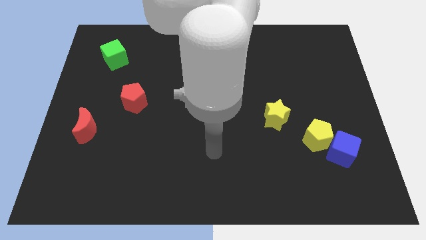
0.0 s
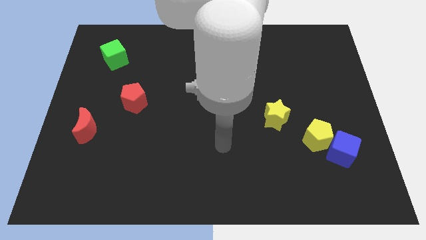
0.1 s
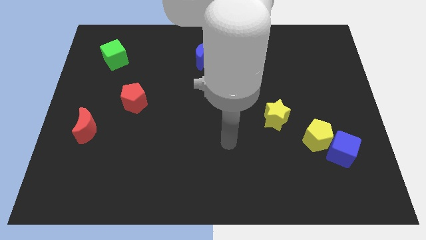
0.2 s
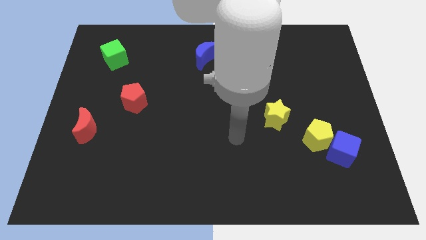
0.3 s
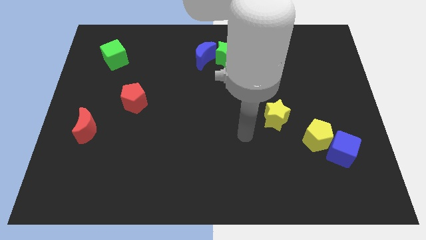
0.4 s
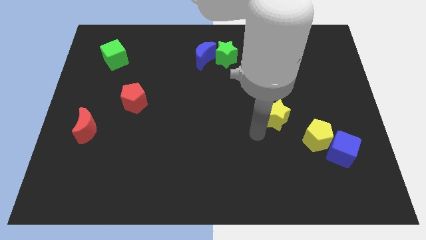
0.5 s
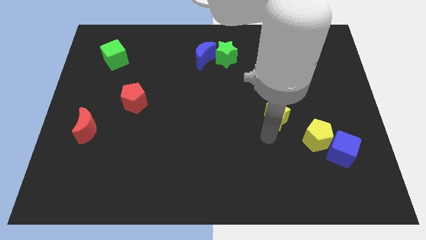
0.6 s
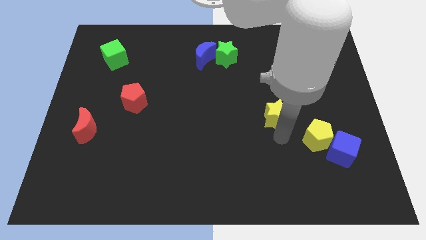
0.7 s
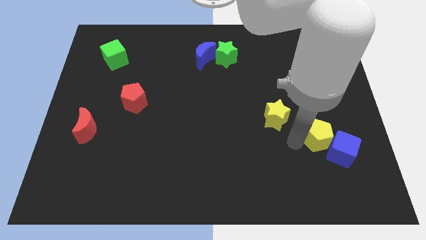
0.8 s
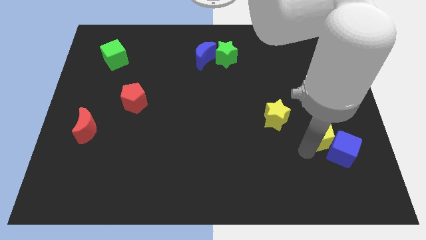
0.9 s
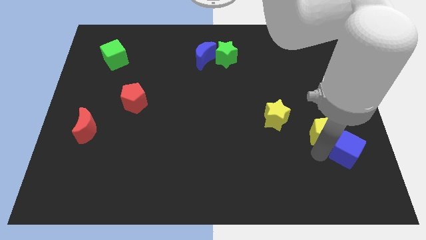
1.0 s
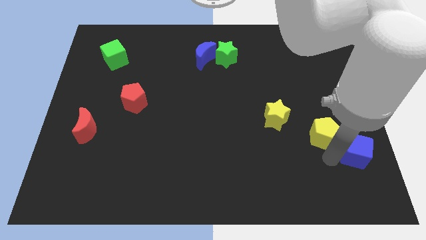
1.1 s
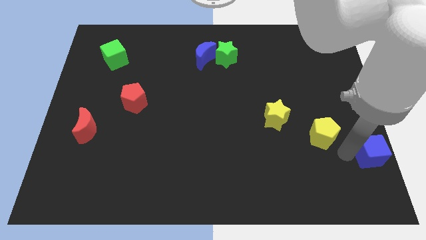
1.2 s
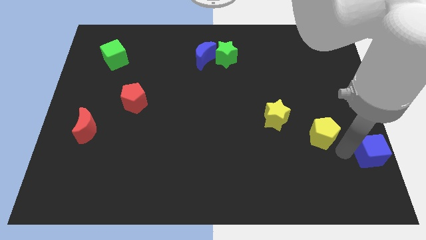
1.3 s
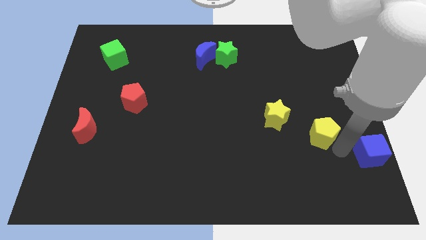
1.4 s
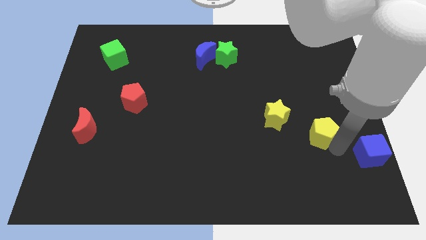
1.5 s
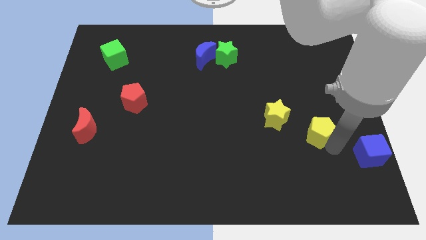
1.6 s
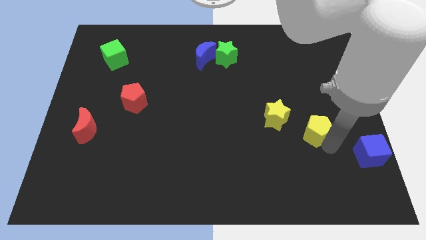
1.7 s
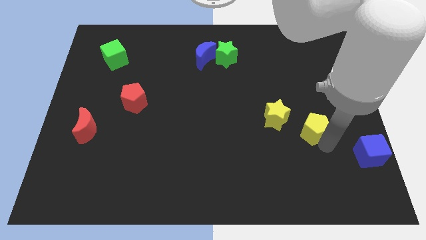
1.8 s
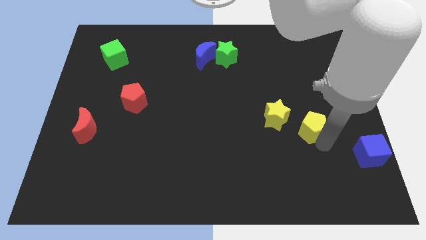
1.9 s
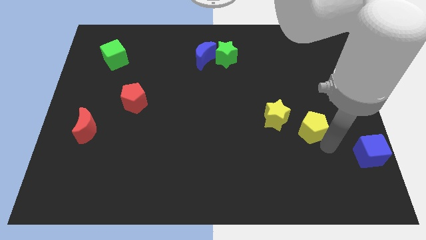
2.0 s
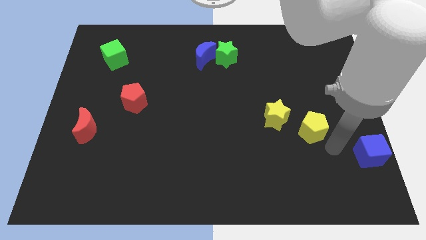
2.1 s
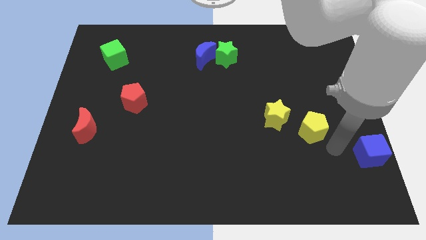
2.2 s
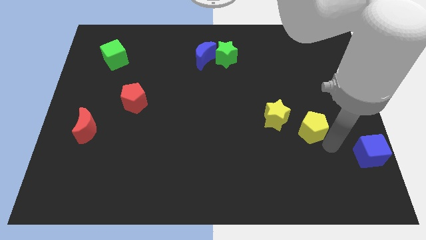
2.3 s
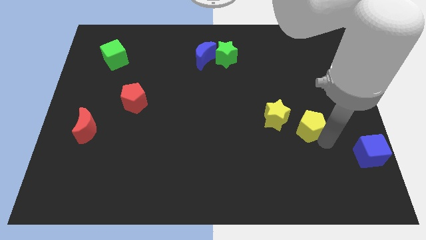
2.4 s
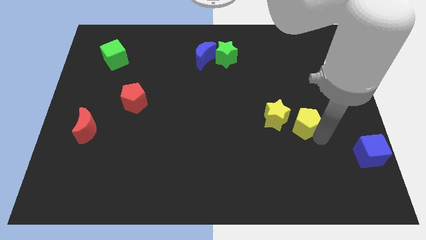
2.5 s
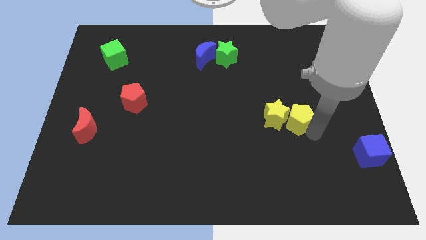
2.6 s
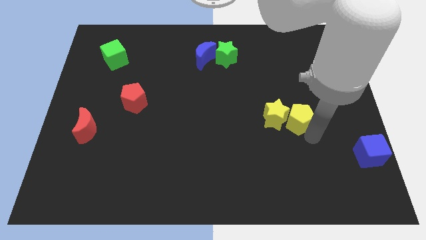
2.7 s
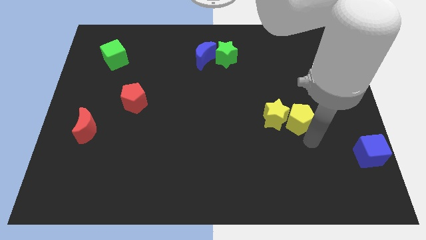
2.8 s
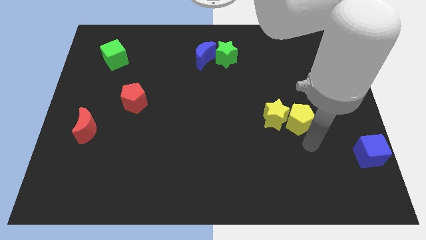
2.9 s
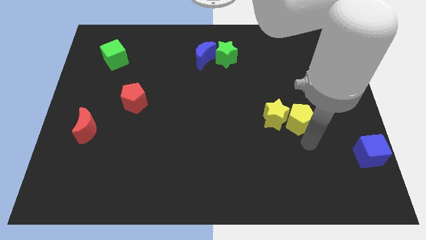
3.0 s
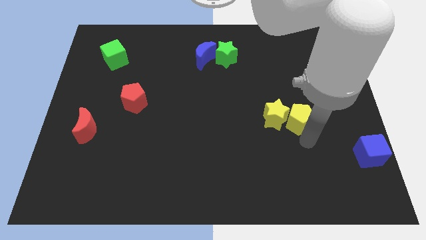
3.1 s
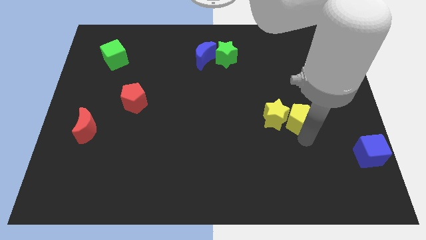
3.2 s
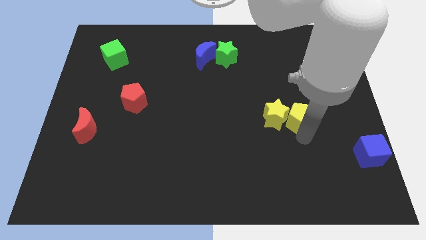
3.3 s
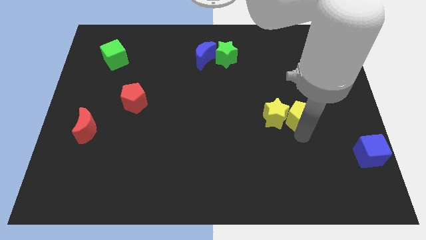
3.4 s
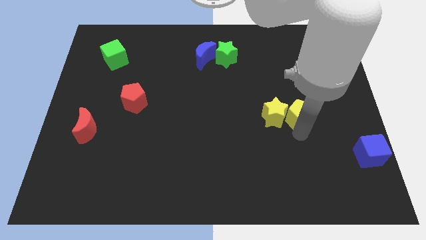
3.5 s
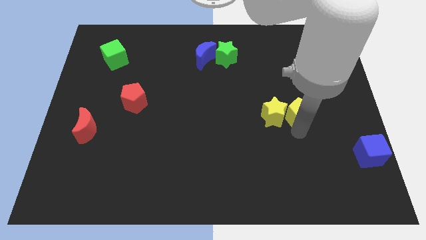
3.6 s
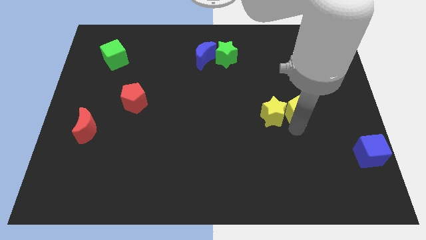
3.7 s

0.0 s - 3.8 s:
move the yellow pentagon slightly diagonally upwards and to the left

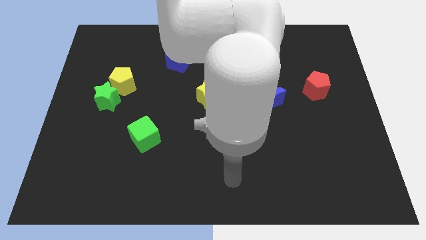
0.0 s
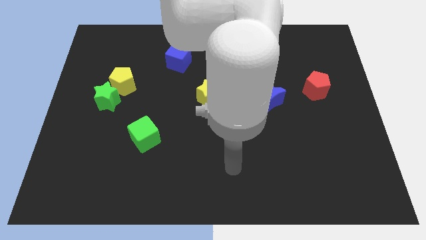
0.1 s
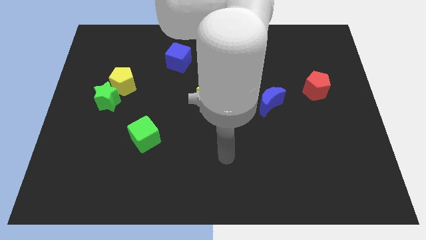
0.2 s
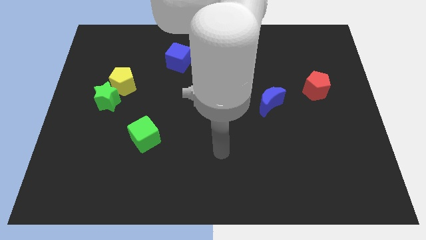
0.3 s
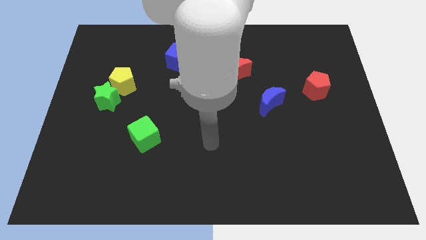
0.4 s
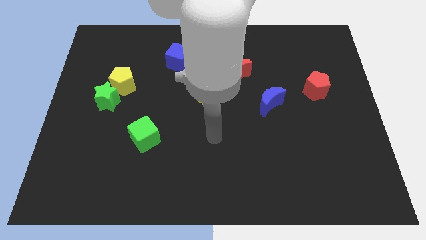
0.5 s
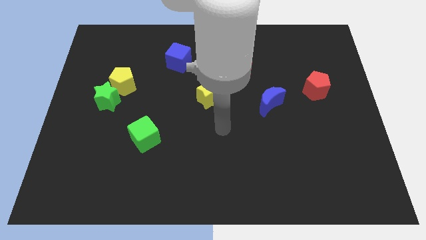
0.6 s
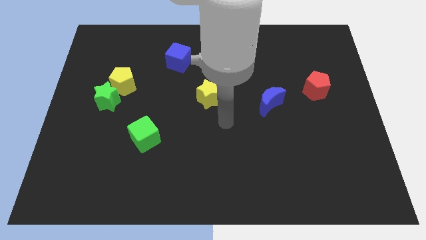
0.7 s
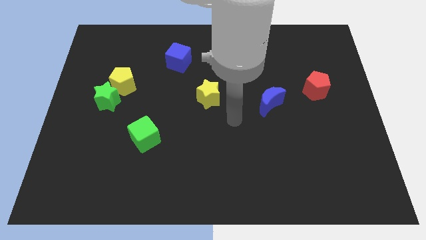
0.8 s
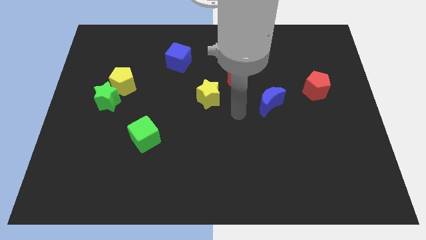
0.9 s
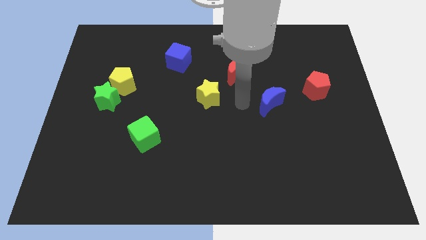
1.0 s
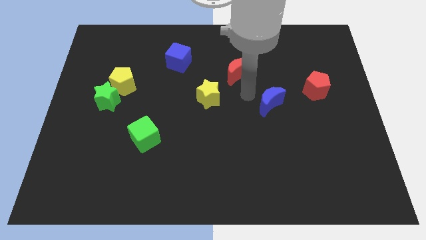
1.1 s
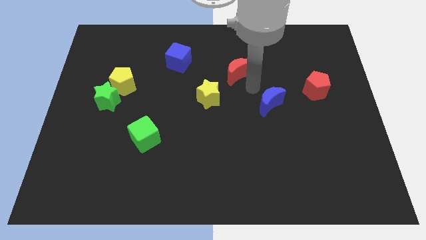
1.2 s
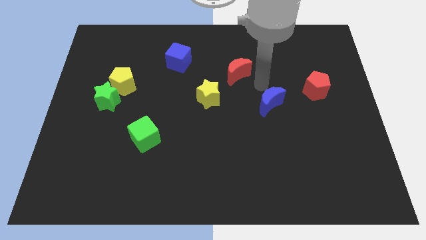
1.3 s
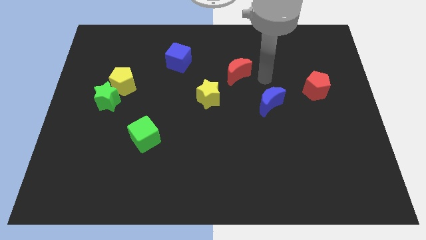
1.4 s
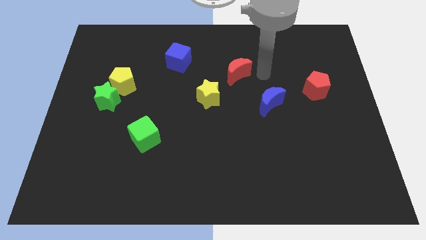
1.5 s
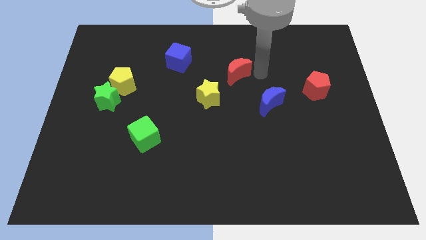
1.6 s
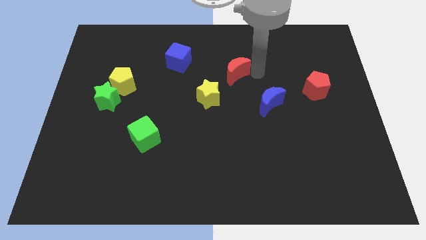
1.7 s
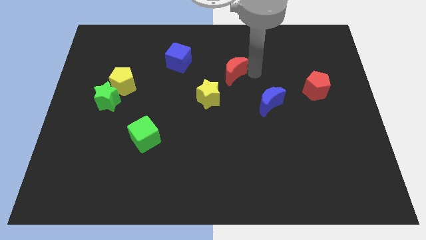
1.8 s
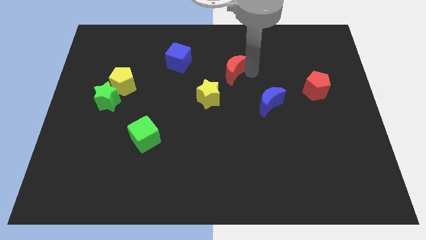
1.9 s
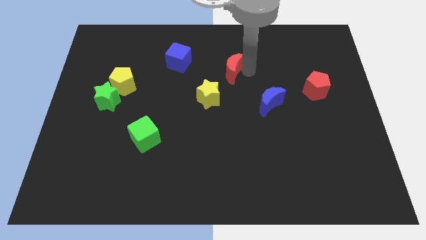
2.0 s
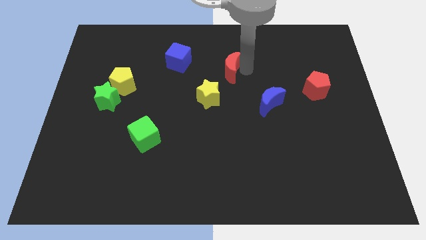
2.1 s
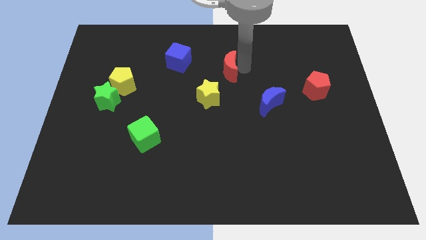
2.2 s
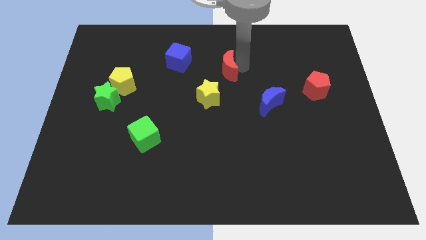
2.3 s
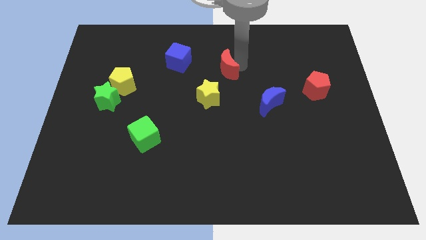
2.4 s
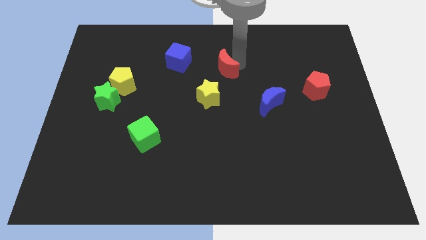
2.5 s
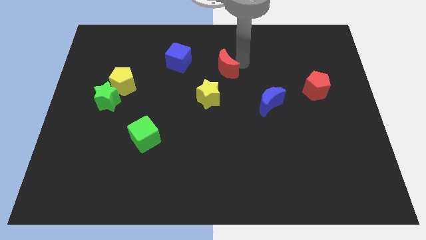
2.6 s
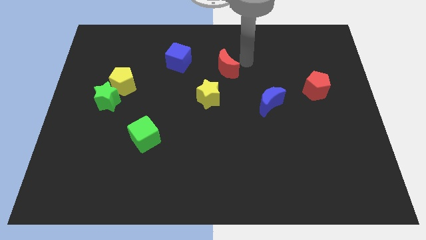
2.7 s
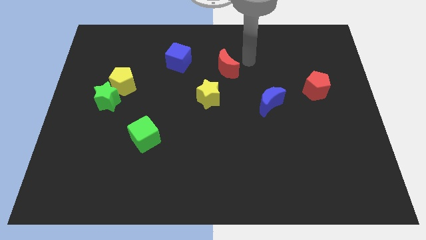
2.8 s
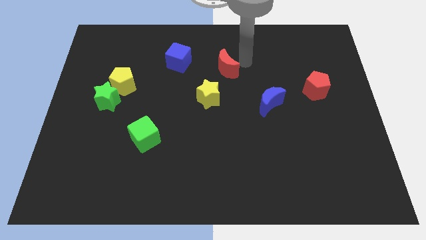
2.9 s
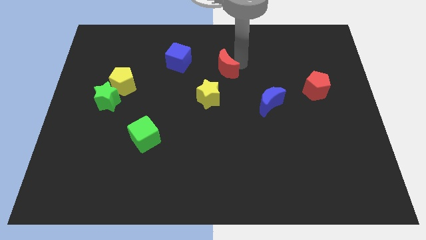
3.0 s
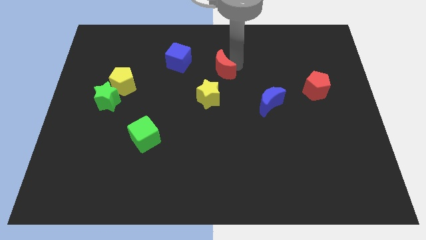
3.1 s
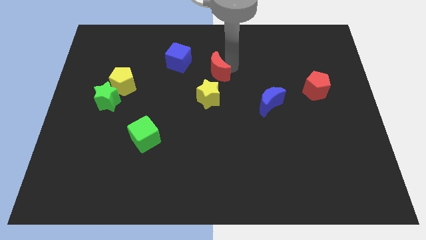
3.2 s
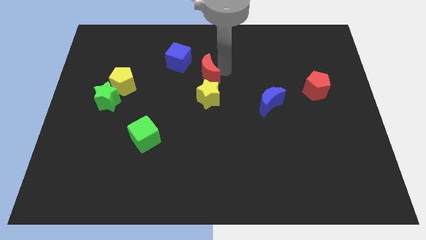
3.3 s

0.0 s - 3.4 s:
slightly push the red moon to the left

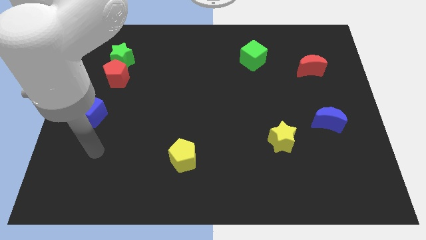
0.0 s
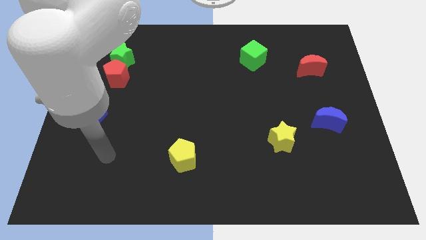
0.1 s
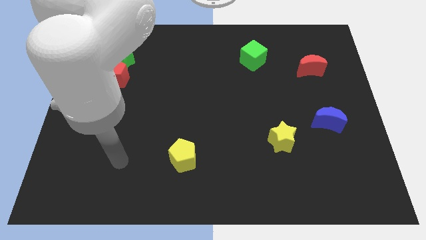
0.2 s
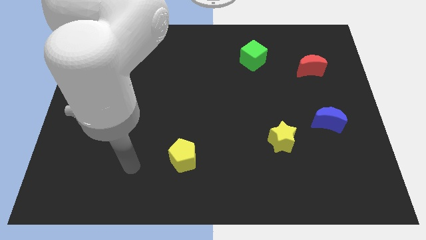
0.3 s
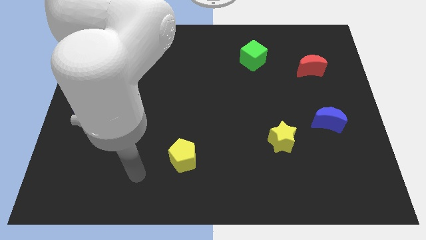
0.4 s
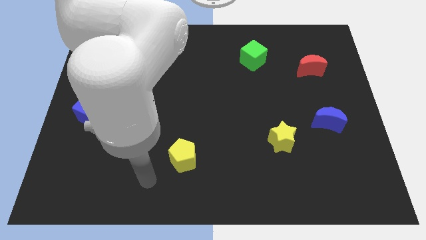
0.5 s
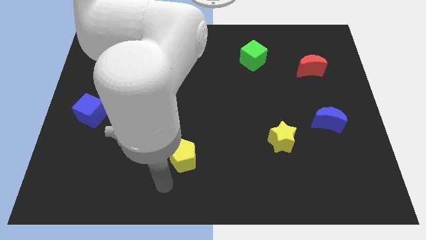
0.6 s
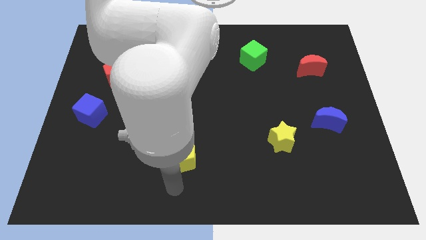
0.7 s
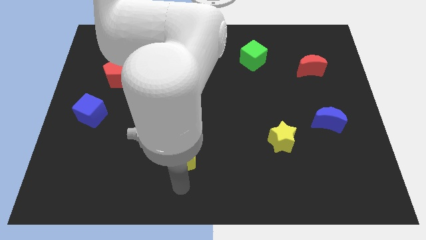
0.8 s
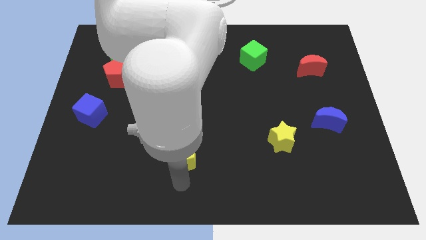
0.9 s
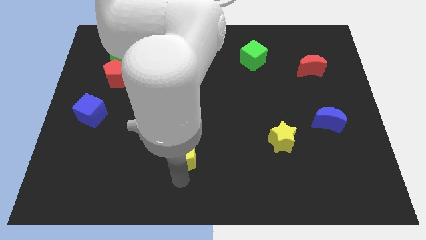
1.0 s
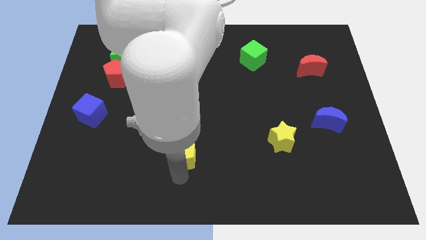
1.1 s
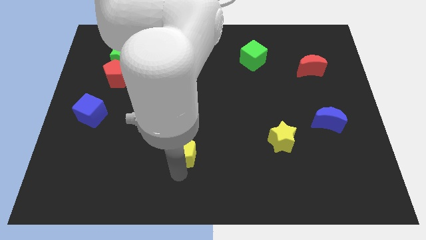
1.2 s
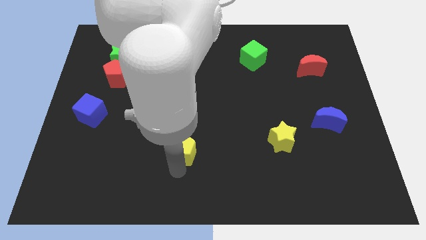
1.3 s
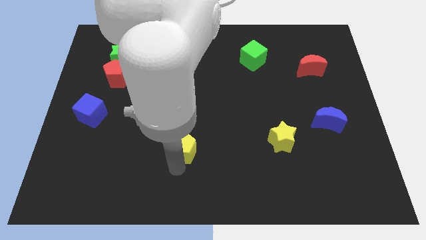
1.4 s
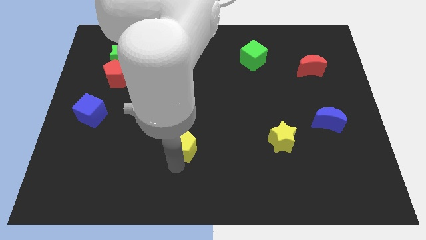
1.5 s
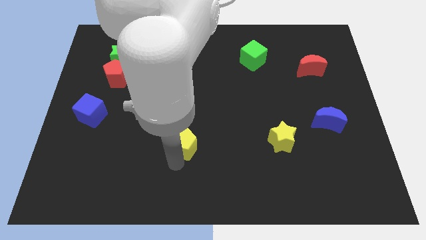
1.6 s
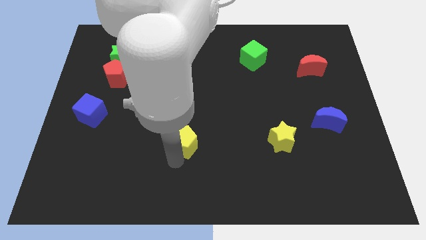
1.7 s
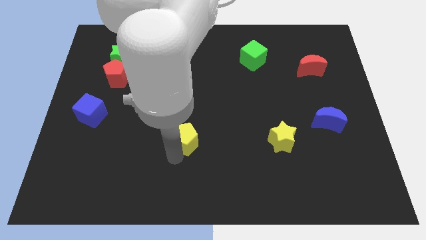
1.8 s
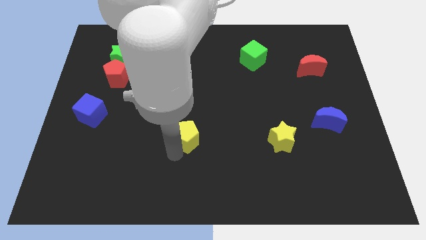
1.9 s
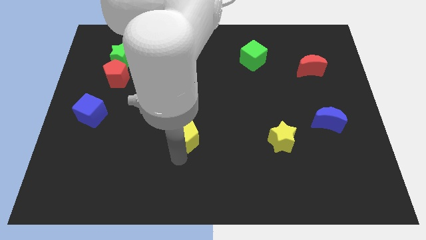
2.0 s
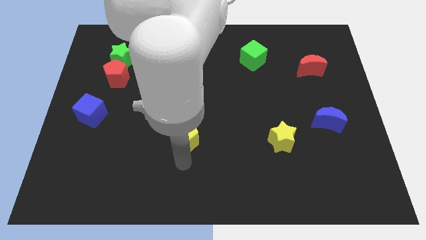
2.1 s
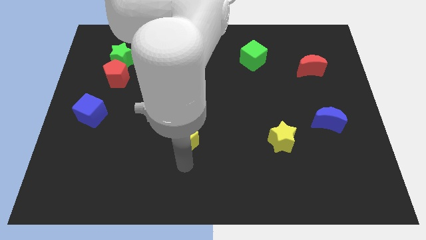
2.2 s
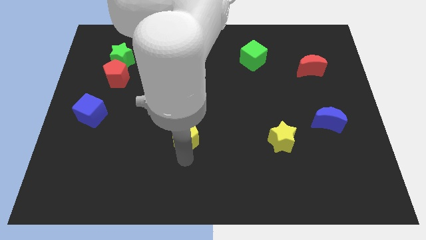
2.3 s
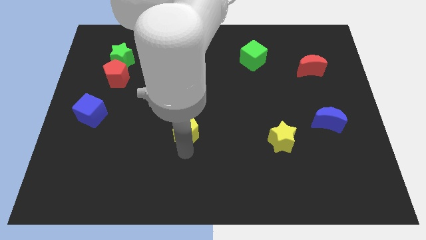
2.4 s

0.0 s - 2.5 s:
move the yellow pentagon up somewhat
